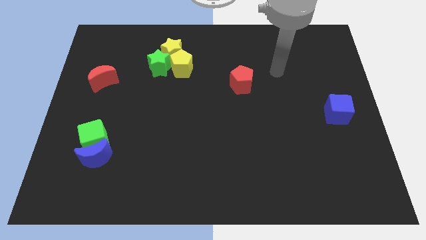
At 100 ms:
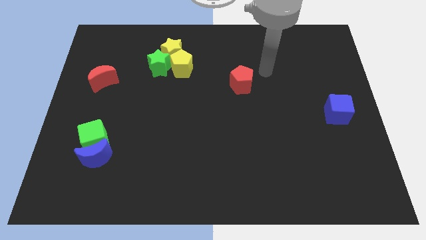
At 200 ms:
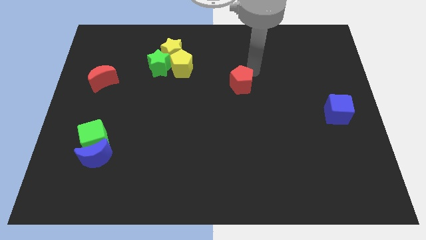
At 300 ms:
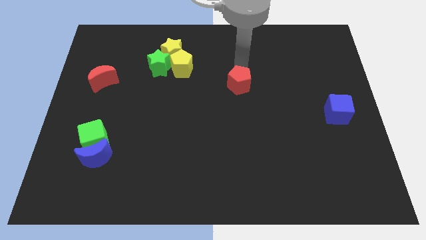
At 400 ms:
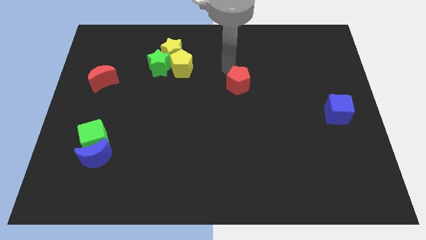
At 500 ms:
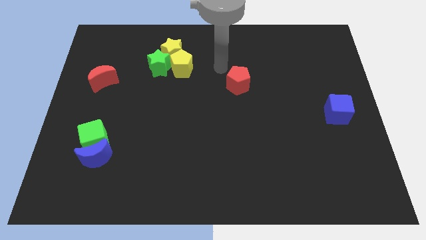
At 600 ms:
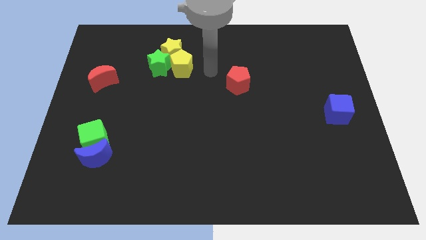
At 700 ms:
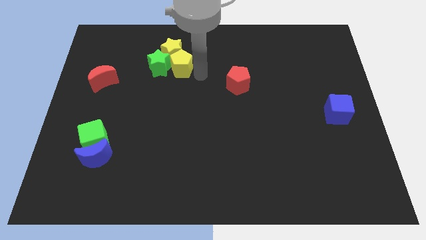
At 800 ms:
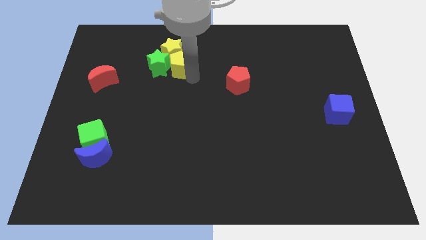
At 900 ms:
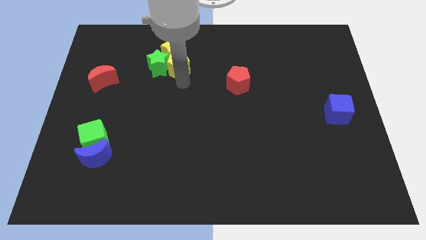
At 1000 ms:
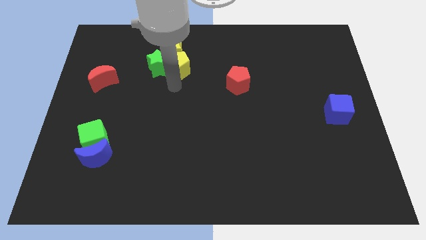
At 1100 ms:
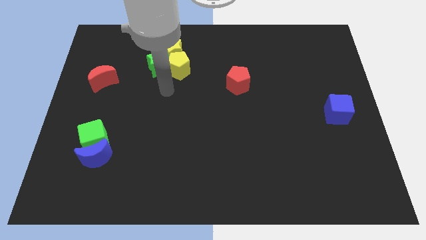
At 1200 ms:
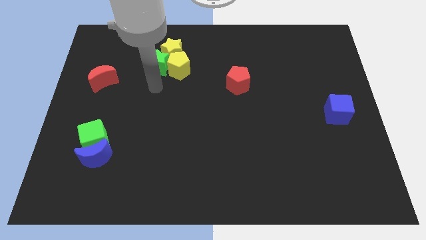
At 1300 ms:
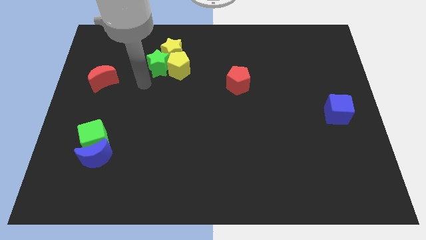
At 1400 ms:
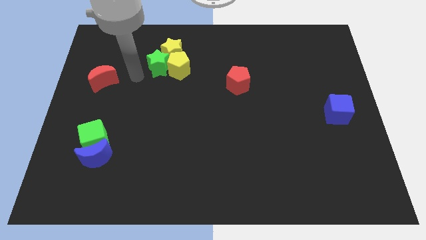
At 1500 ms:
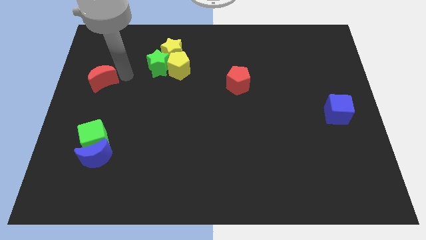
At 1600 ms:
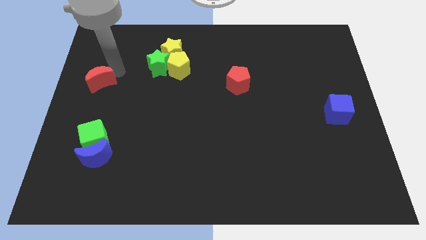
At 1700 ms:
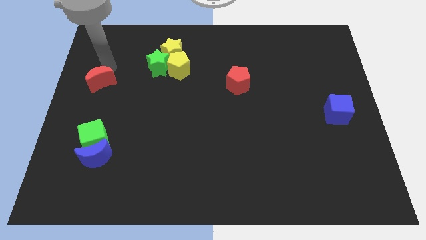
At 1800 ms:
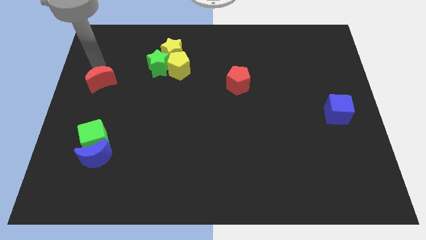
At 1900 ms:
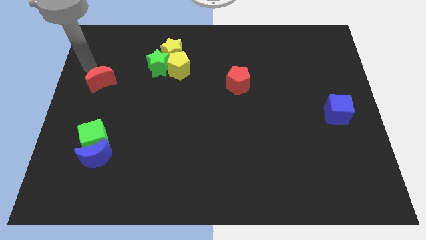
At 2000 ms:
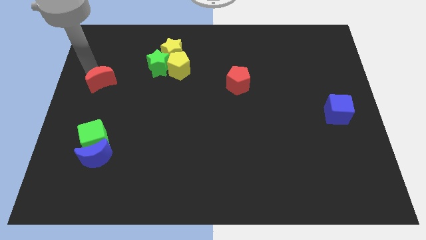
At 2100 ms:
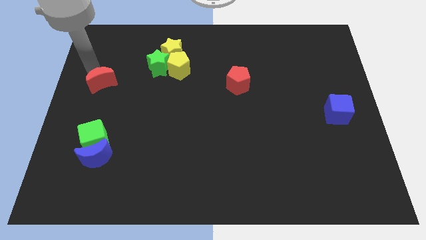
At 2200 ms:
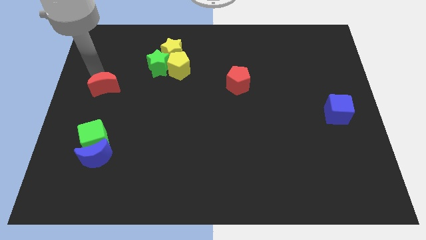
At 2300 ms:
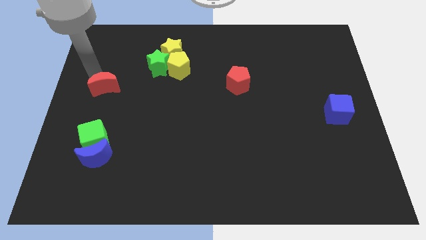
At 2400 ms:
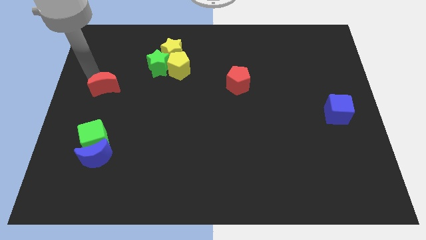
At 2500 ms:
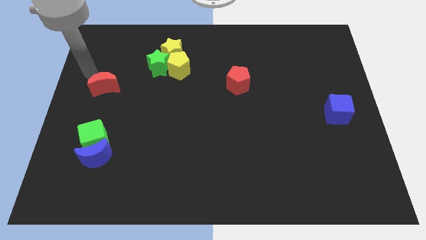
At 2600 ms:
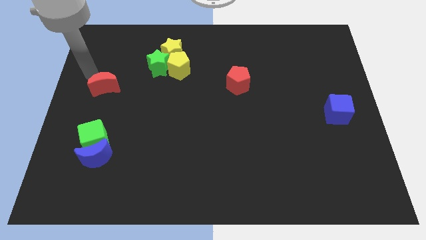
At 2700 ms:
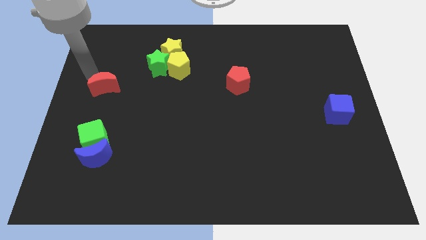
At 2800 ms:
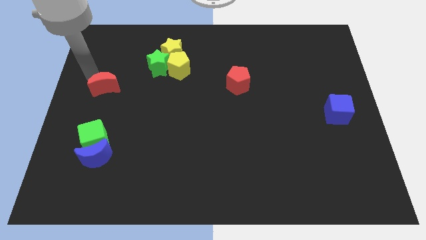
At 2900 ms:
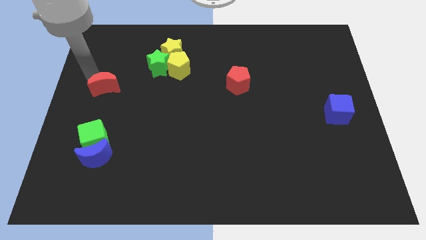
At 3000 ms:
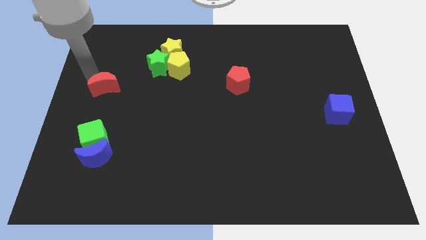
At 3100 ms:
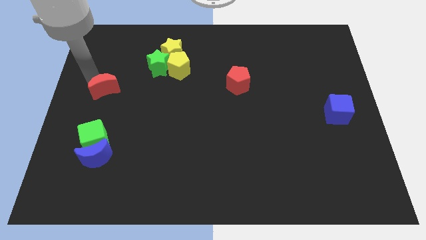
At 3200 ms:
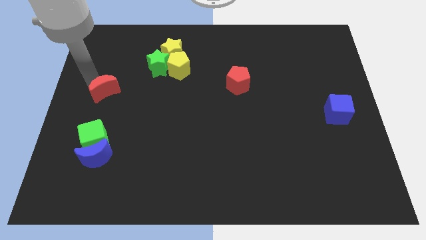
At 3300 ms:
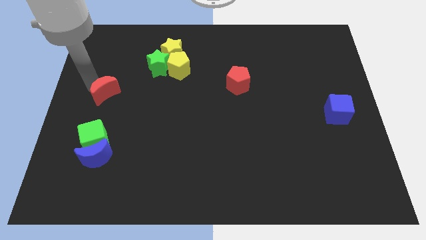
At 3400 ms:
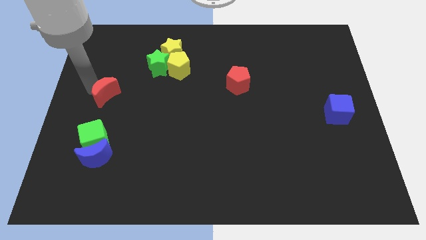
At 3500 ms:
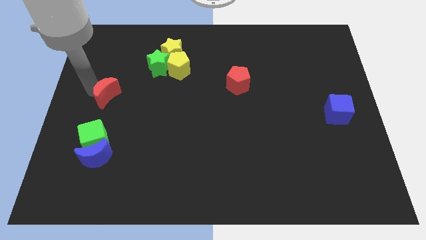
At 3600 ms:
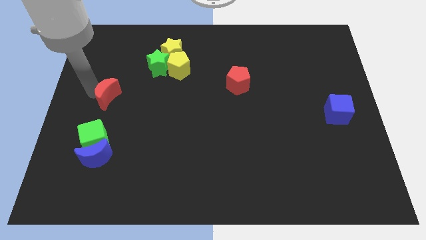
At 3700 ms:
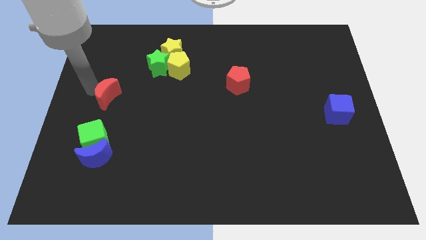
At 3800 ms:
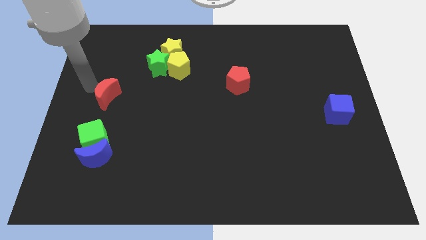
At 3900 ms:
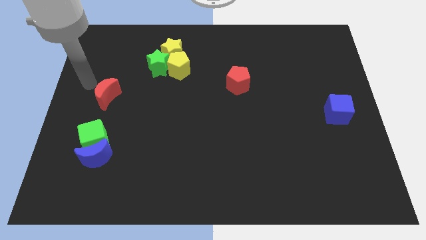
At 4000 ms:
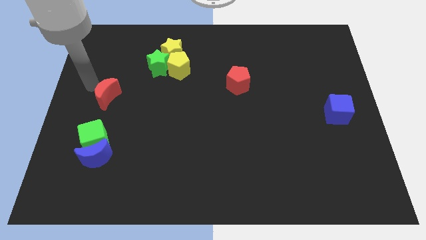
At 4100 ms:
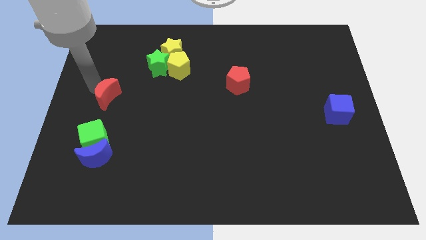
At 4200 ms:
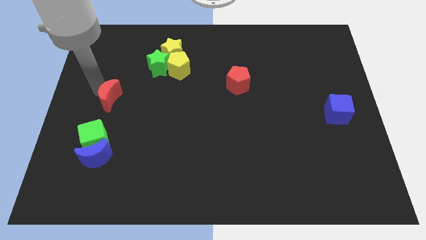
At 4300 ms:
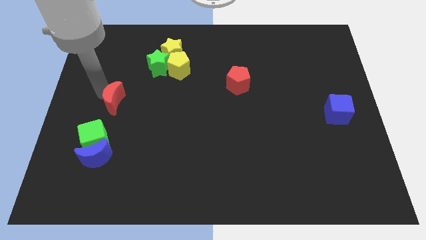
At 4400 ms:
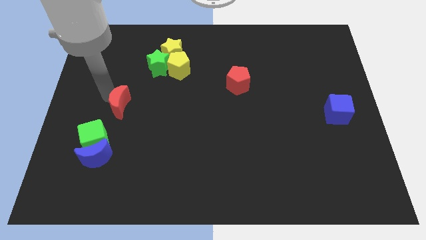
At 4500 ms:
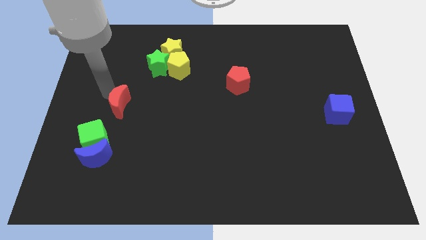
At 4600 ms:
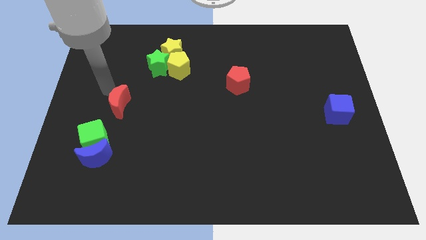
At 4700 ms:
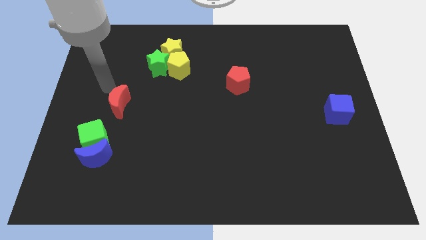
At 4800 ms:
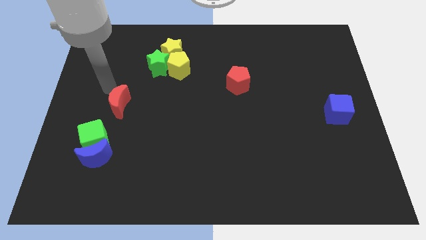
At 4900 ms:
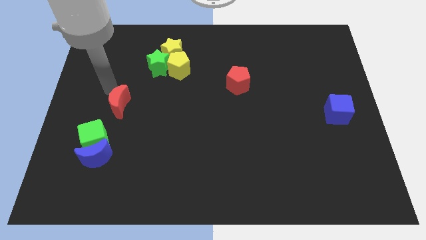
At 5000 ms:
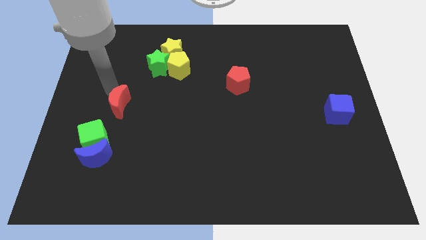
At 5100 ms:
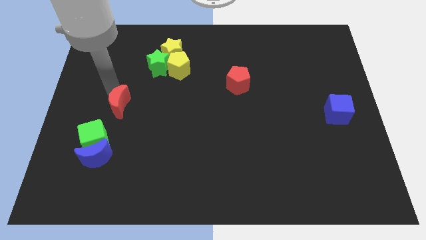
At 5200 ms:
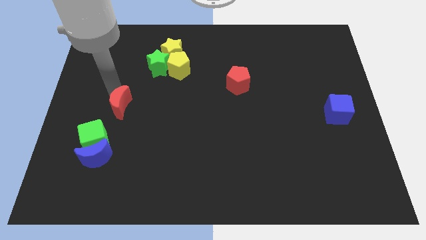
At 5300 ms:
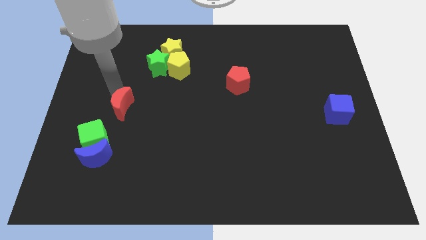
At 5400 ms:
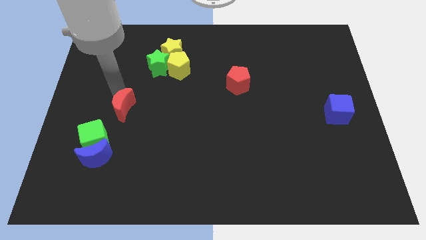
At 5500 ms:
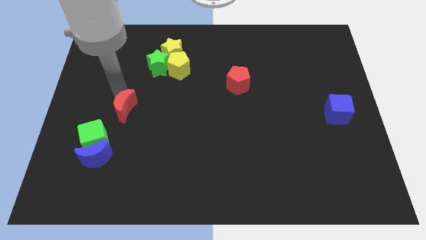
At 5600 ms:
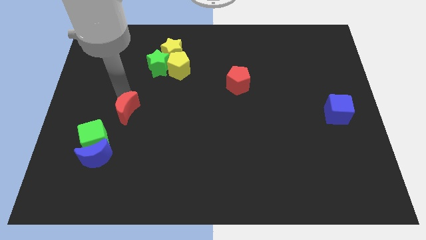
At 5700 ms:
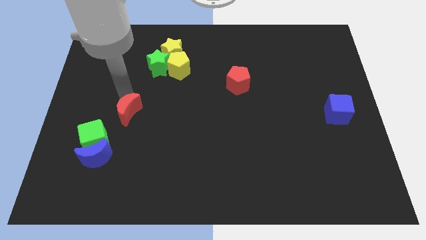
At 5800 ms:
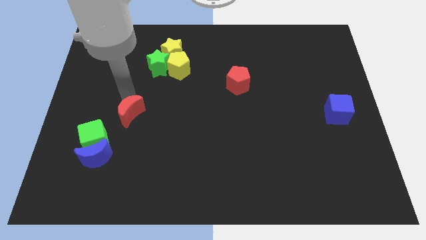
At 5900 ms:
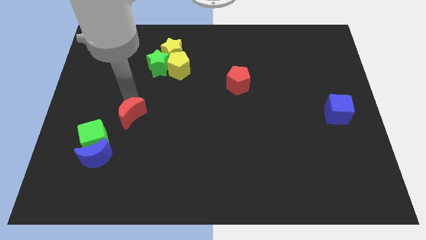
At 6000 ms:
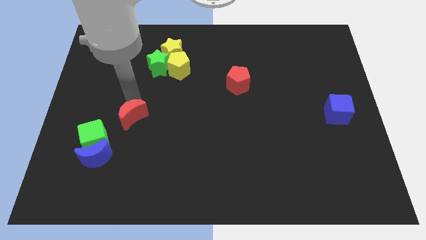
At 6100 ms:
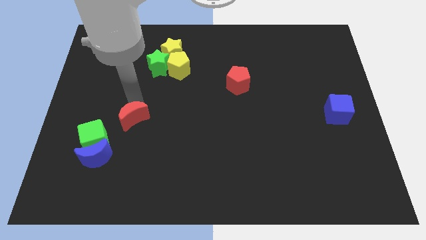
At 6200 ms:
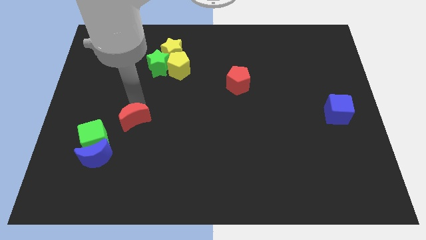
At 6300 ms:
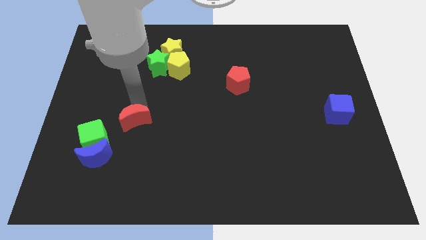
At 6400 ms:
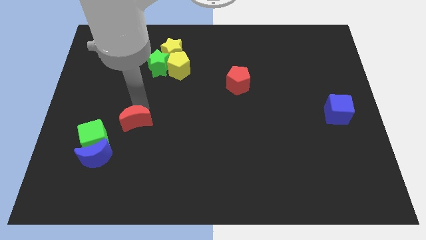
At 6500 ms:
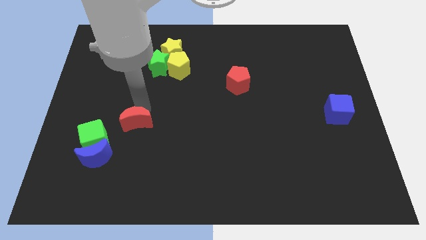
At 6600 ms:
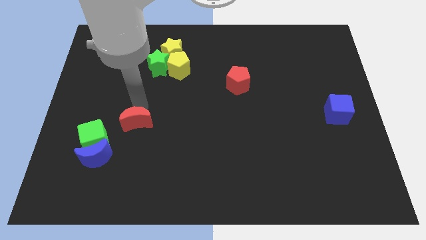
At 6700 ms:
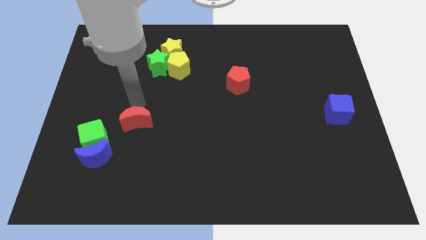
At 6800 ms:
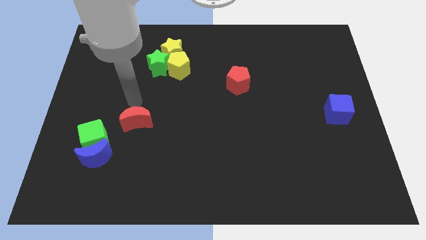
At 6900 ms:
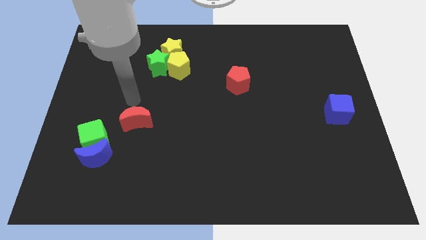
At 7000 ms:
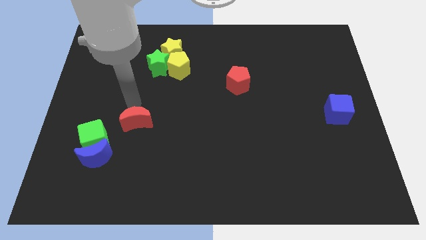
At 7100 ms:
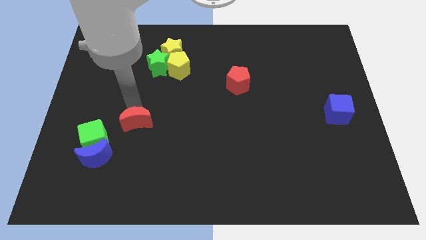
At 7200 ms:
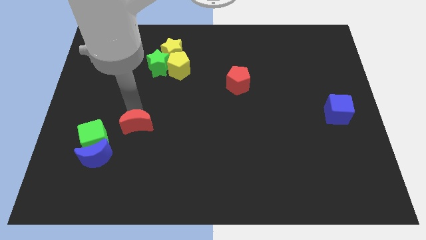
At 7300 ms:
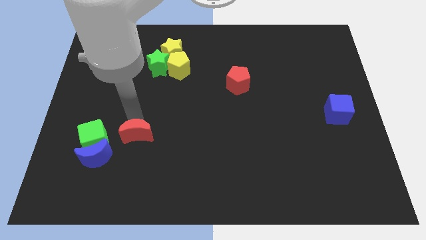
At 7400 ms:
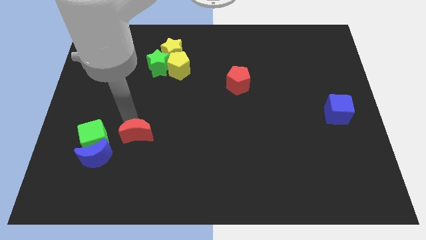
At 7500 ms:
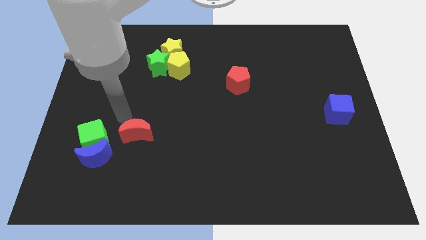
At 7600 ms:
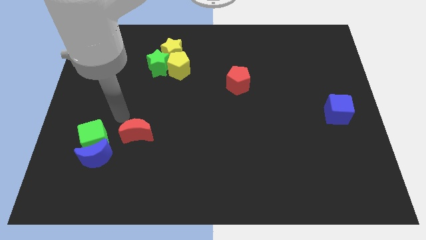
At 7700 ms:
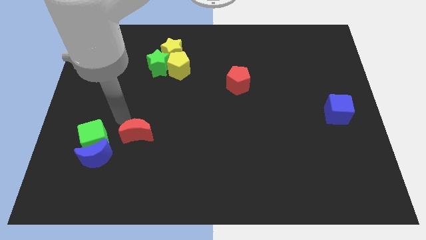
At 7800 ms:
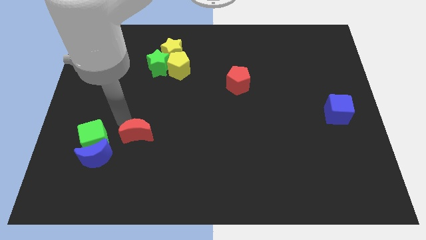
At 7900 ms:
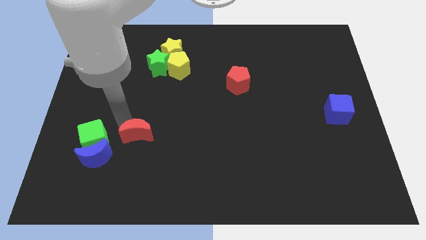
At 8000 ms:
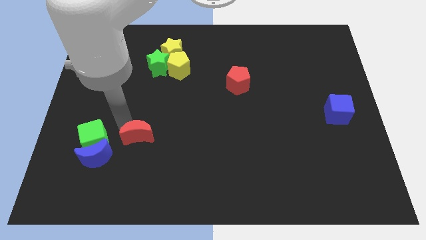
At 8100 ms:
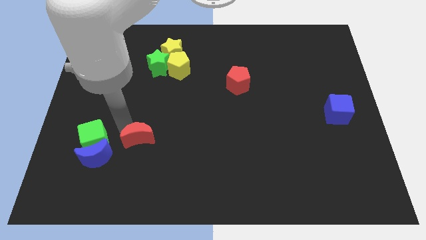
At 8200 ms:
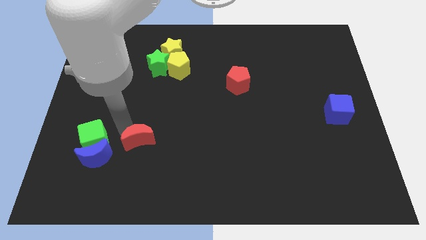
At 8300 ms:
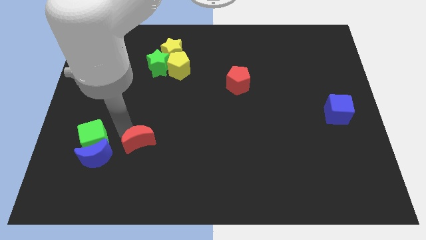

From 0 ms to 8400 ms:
slide the red moon downwards and to the right
